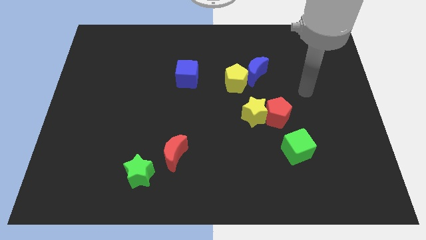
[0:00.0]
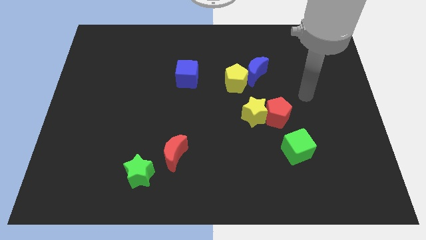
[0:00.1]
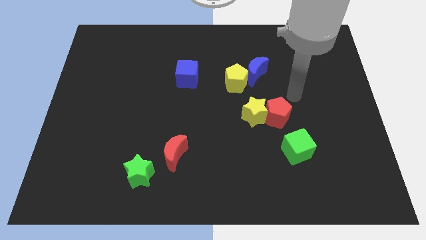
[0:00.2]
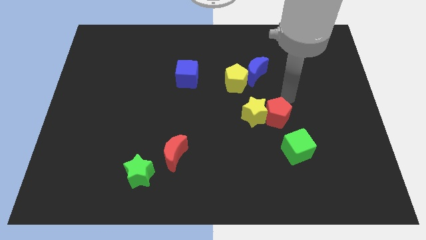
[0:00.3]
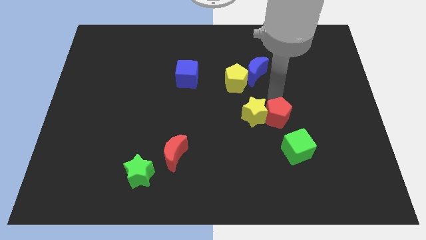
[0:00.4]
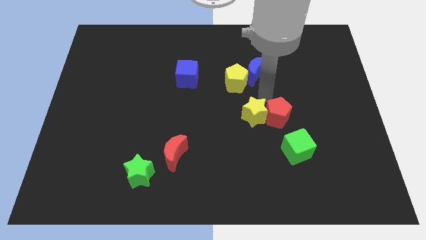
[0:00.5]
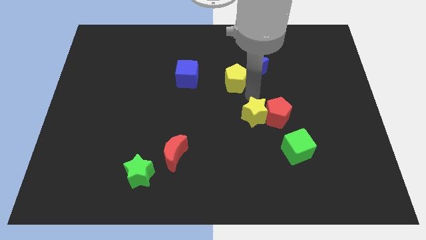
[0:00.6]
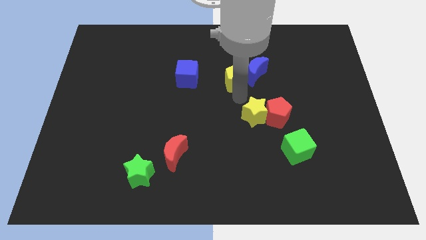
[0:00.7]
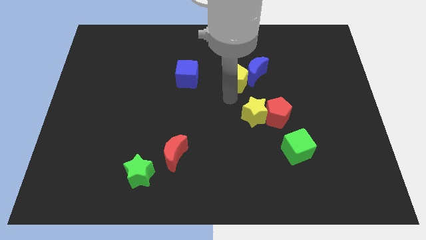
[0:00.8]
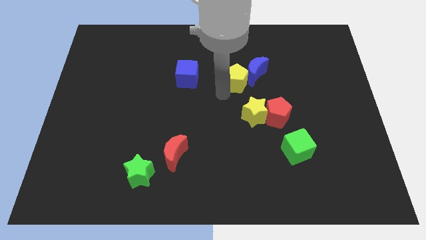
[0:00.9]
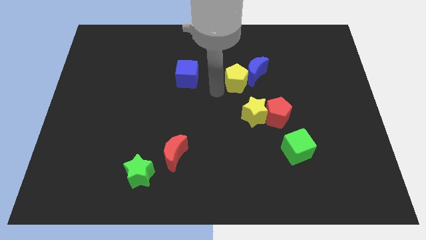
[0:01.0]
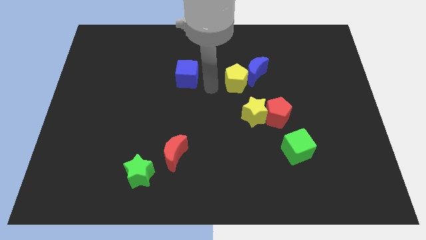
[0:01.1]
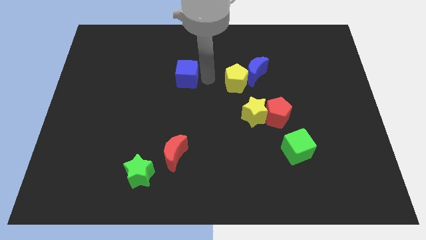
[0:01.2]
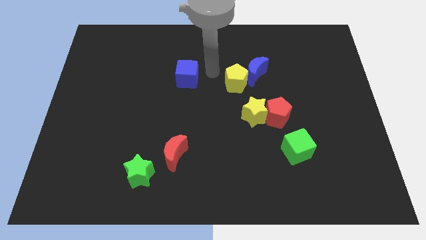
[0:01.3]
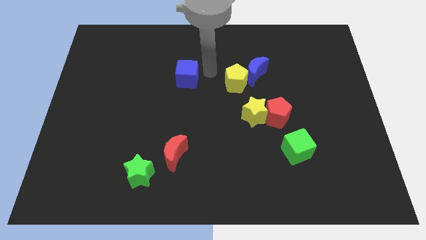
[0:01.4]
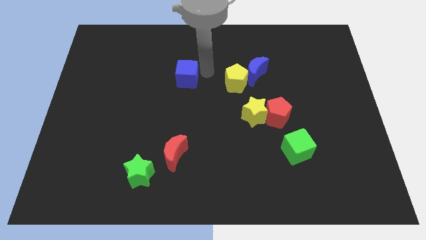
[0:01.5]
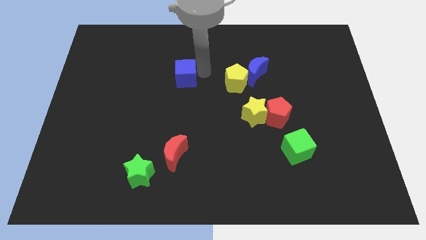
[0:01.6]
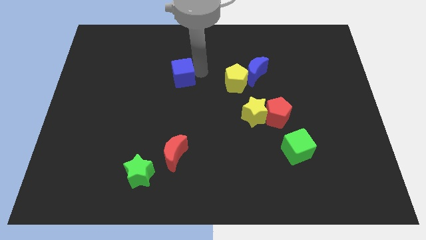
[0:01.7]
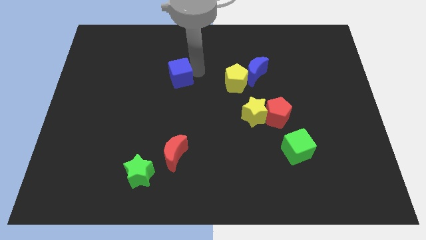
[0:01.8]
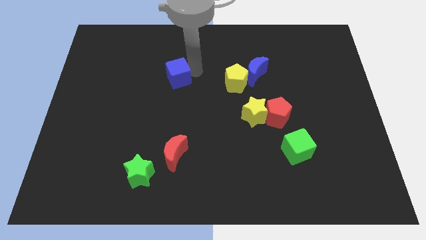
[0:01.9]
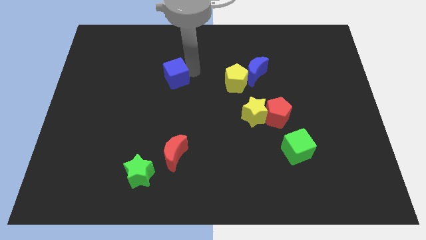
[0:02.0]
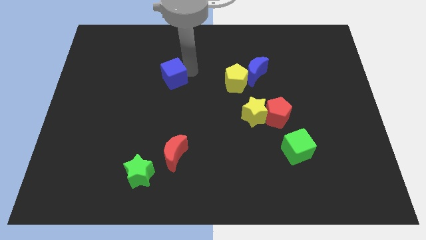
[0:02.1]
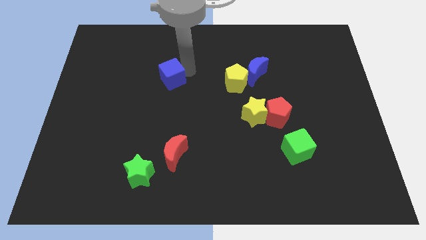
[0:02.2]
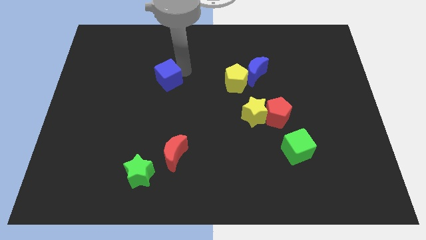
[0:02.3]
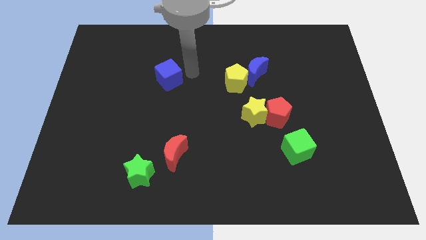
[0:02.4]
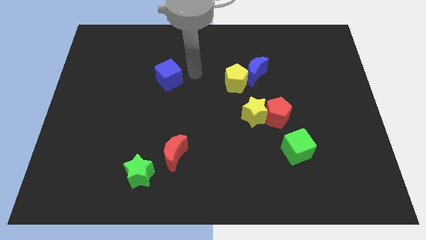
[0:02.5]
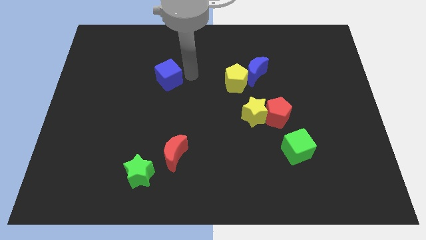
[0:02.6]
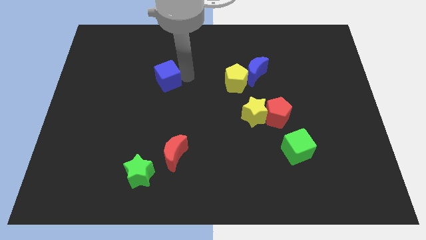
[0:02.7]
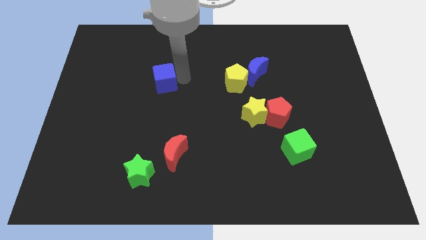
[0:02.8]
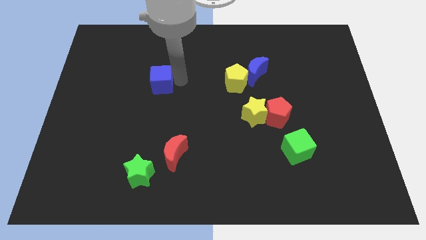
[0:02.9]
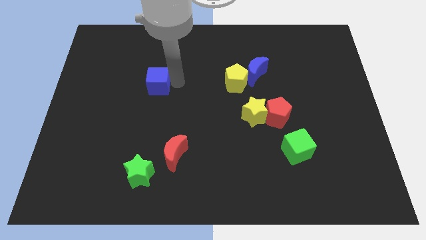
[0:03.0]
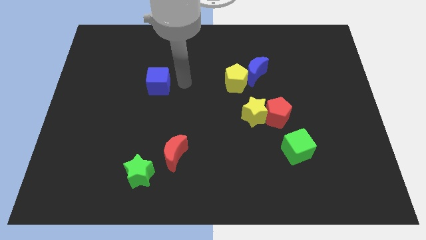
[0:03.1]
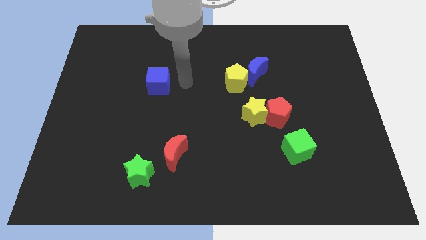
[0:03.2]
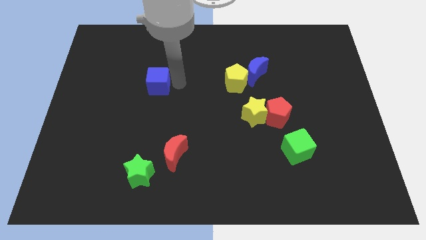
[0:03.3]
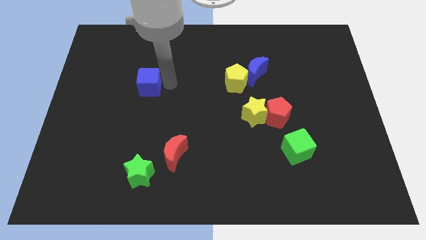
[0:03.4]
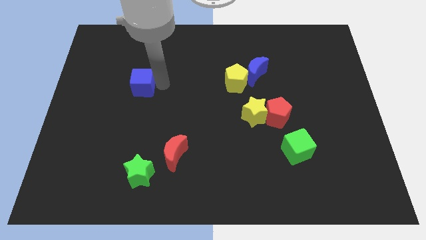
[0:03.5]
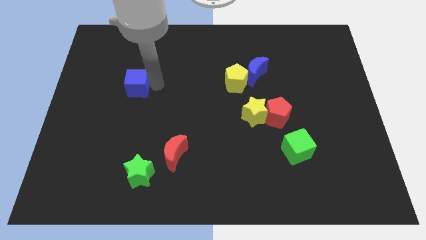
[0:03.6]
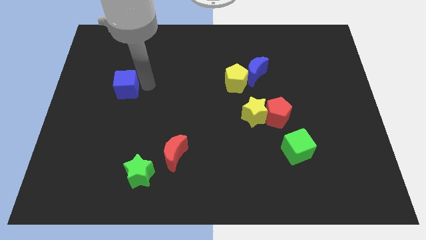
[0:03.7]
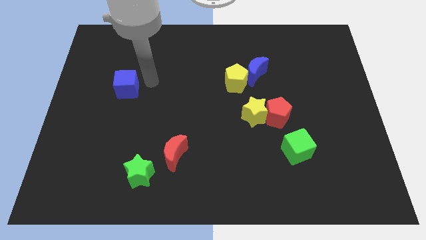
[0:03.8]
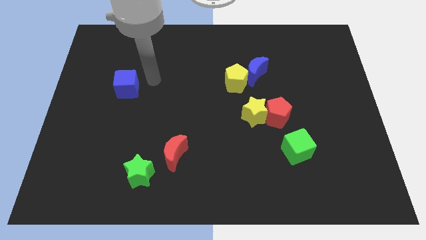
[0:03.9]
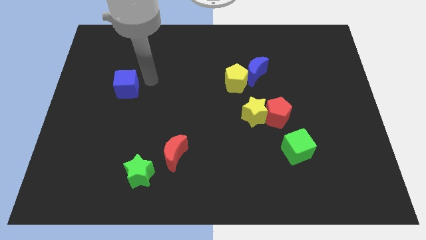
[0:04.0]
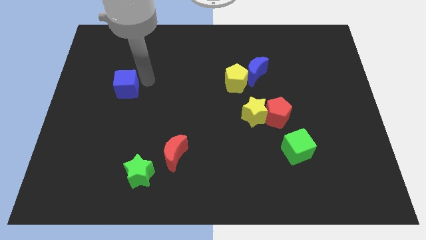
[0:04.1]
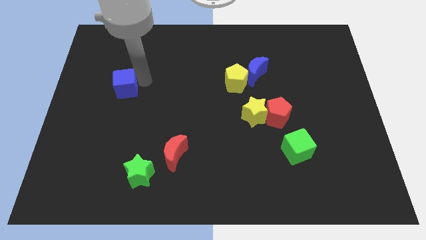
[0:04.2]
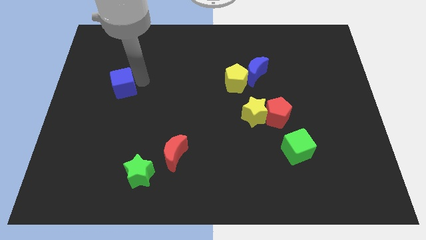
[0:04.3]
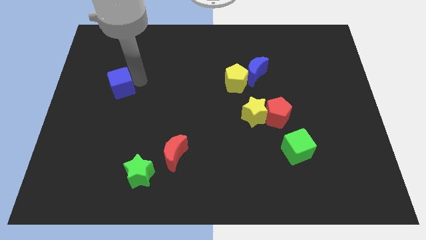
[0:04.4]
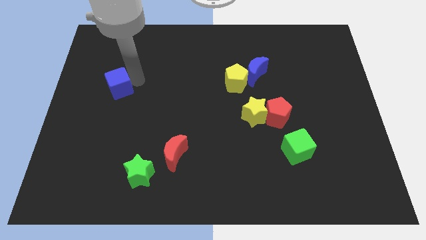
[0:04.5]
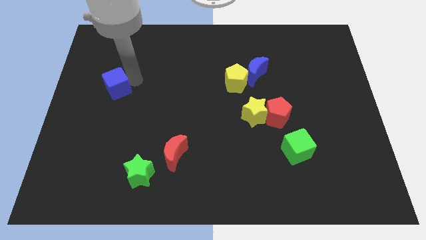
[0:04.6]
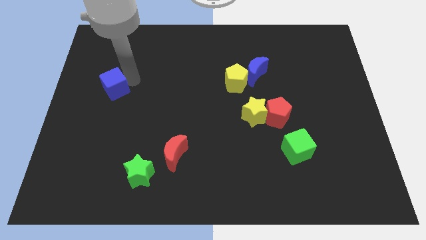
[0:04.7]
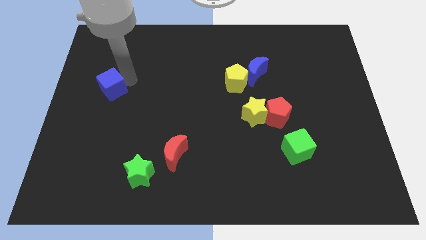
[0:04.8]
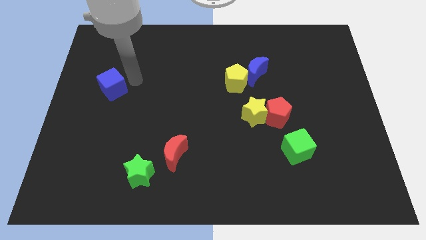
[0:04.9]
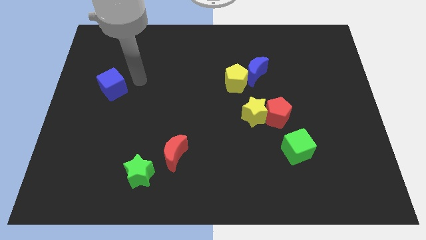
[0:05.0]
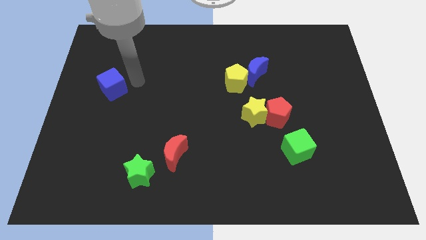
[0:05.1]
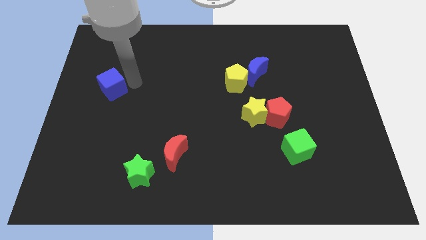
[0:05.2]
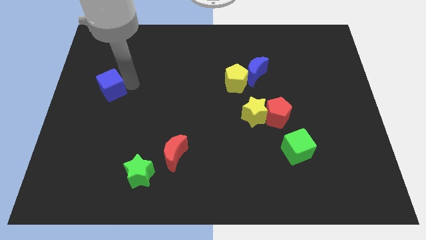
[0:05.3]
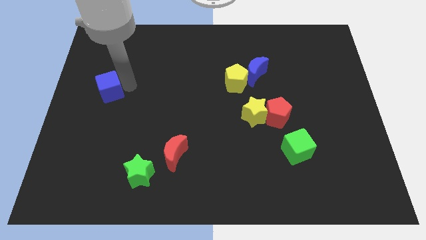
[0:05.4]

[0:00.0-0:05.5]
slide the blue cube to the left side

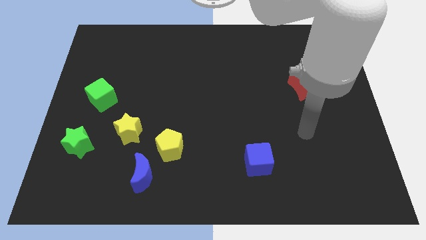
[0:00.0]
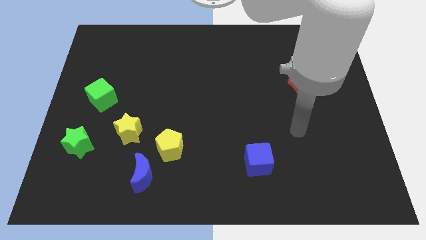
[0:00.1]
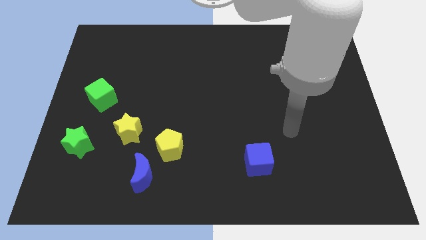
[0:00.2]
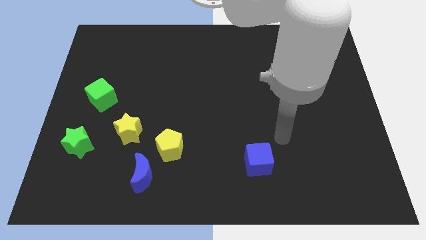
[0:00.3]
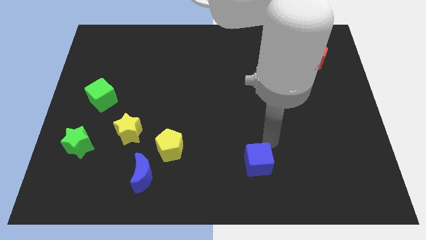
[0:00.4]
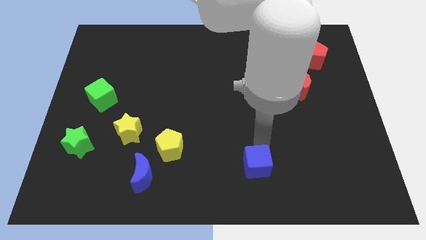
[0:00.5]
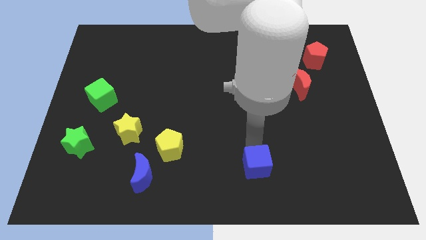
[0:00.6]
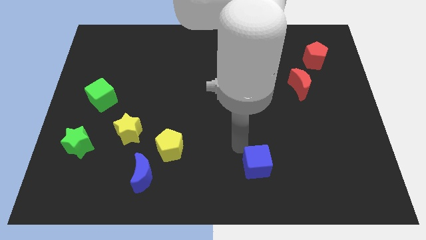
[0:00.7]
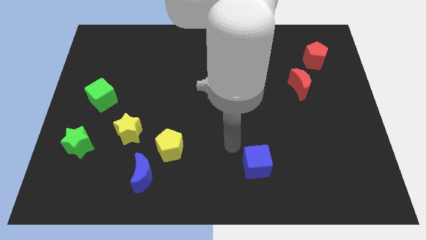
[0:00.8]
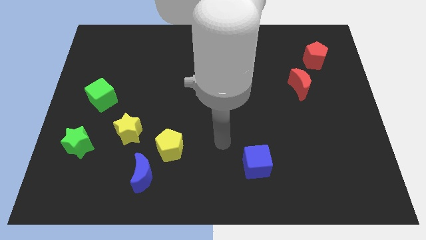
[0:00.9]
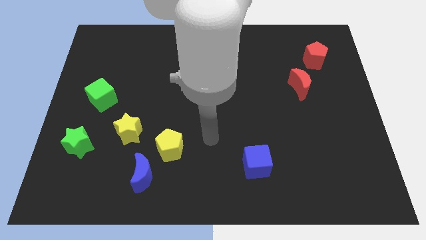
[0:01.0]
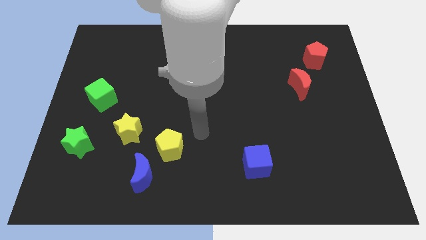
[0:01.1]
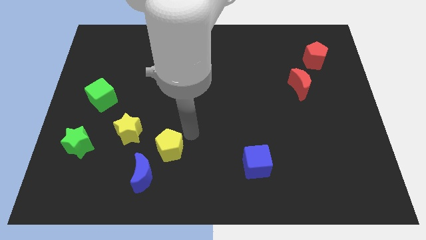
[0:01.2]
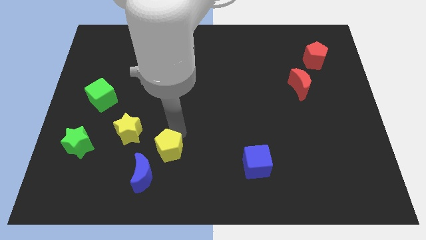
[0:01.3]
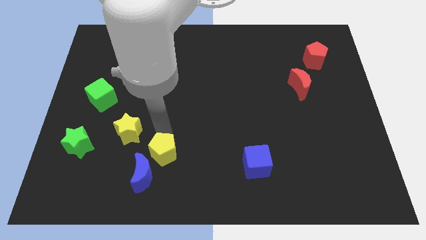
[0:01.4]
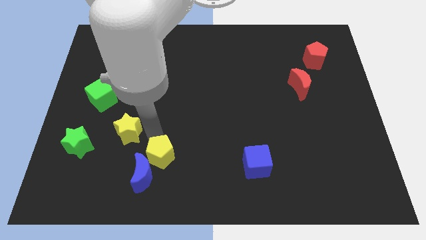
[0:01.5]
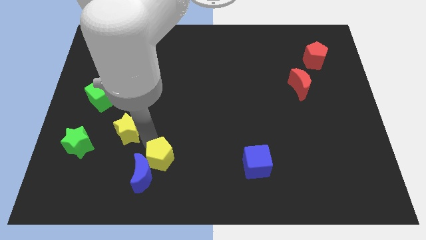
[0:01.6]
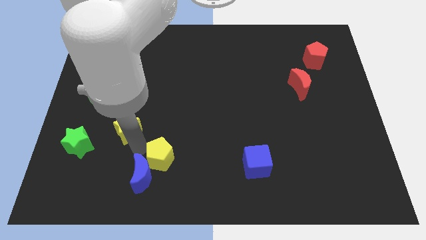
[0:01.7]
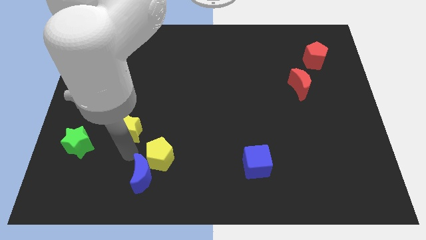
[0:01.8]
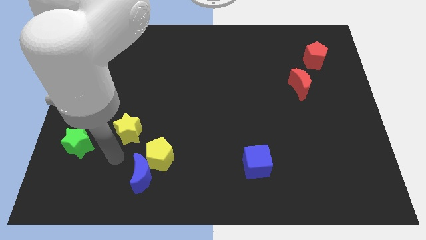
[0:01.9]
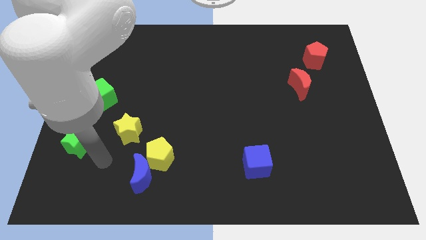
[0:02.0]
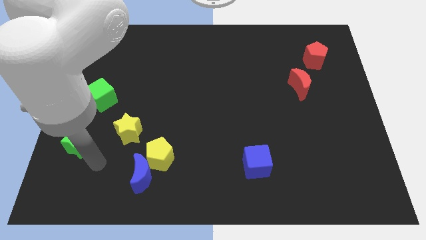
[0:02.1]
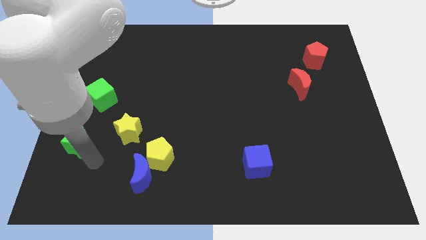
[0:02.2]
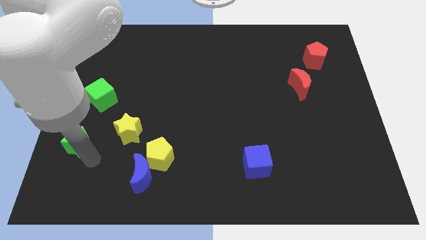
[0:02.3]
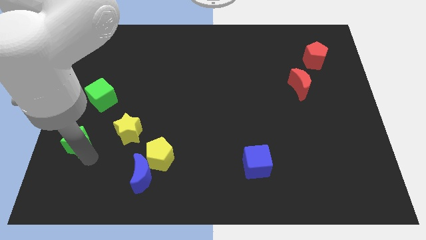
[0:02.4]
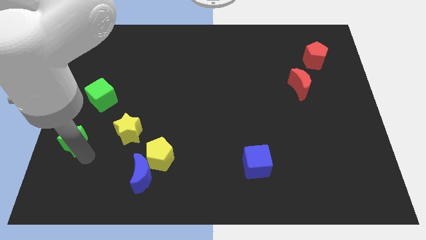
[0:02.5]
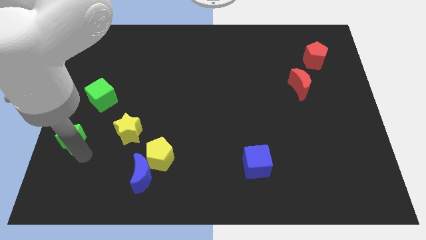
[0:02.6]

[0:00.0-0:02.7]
move the green star to the center left
